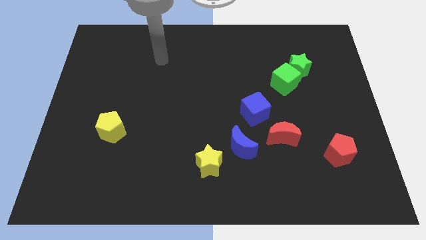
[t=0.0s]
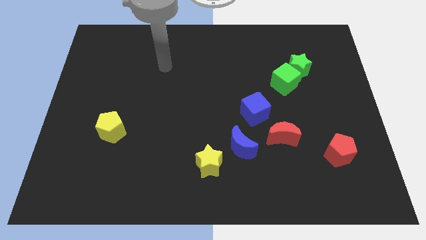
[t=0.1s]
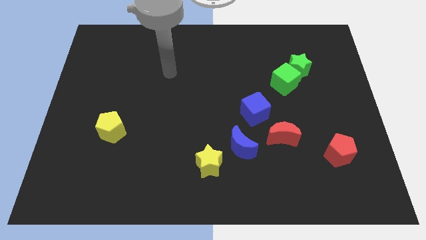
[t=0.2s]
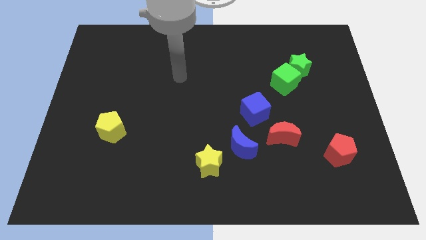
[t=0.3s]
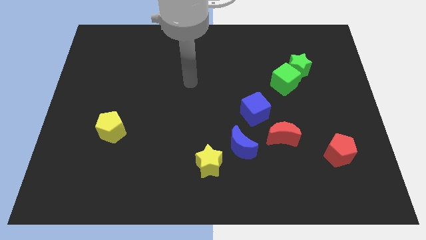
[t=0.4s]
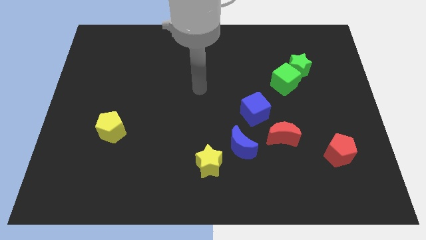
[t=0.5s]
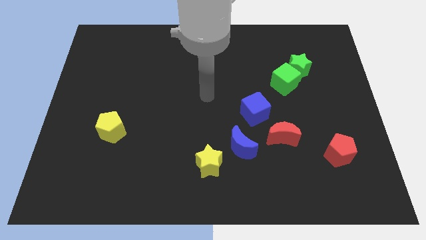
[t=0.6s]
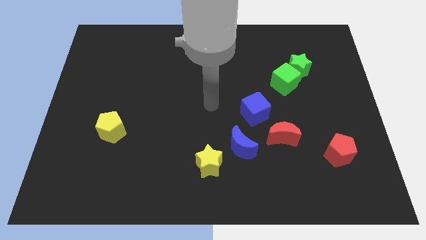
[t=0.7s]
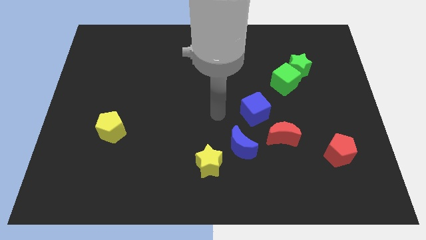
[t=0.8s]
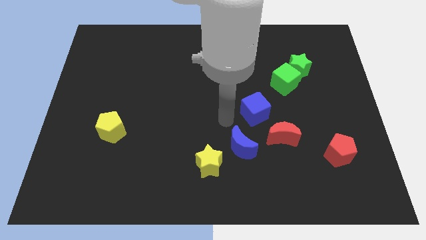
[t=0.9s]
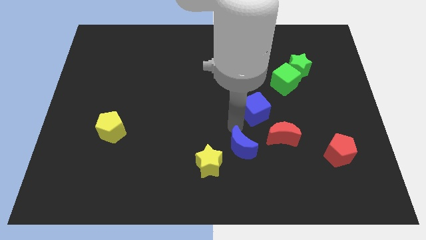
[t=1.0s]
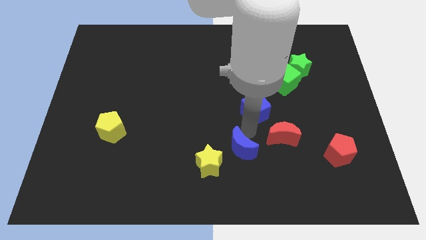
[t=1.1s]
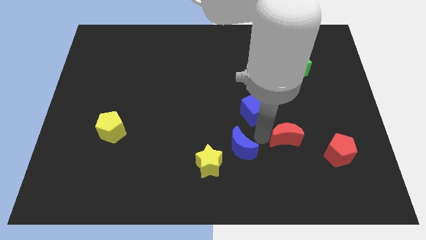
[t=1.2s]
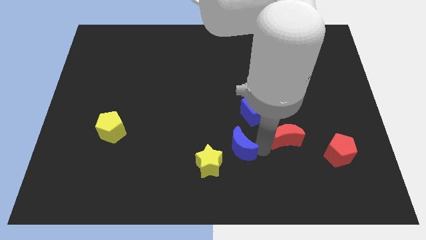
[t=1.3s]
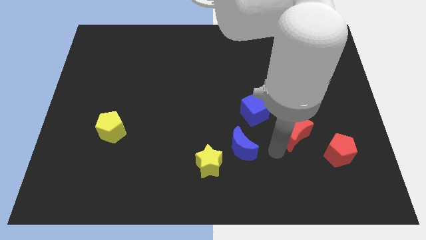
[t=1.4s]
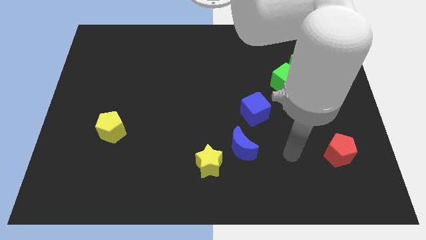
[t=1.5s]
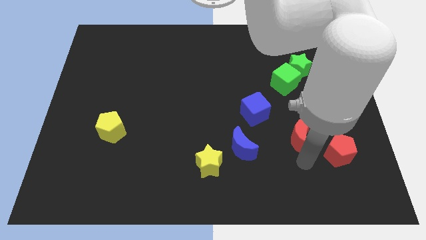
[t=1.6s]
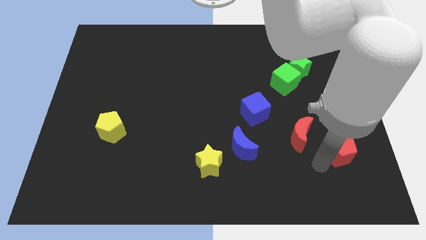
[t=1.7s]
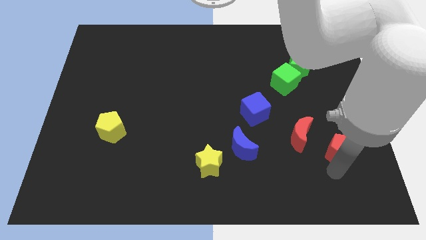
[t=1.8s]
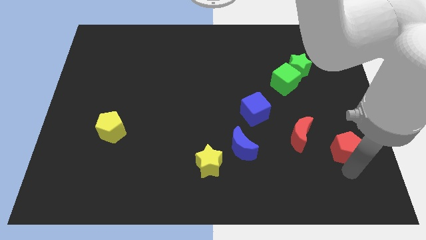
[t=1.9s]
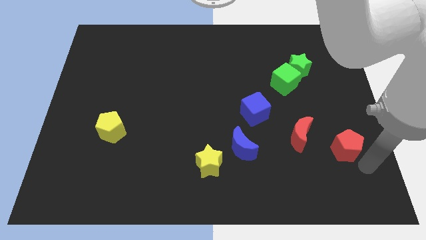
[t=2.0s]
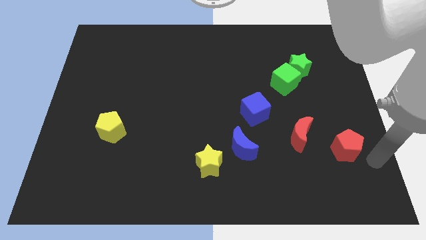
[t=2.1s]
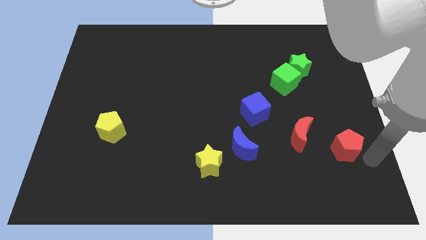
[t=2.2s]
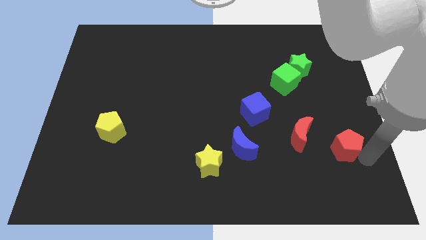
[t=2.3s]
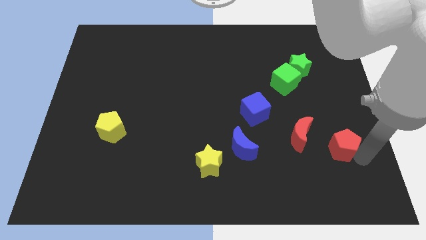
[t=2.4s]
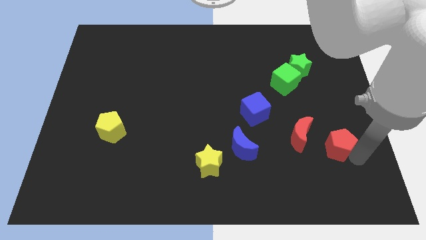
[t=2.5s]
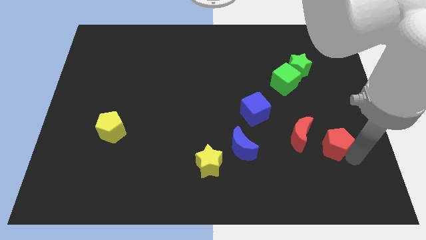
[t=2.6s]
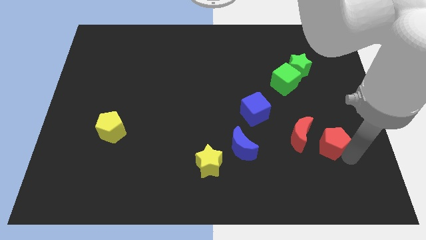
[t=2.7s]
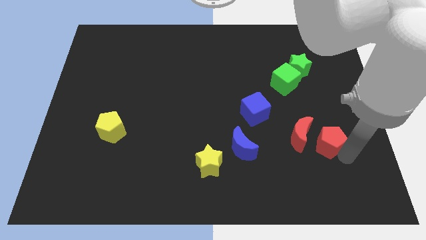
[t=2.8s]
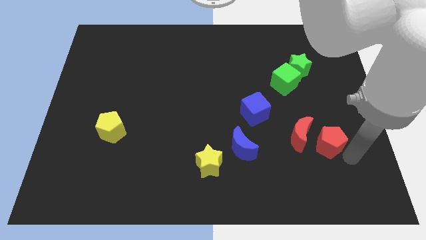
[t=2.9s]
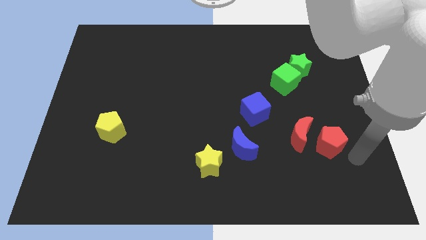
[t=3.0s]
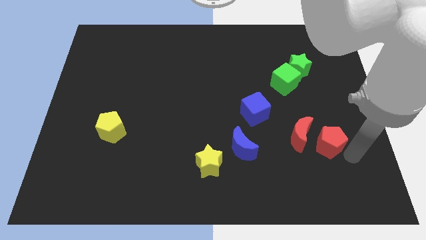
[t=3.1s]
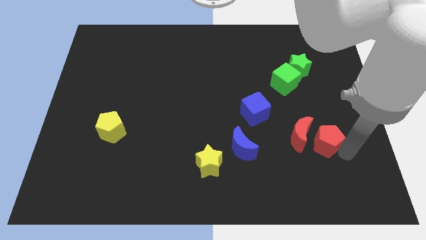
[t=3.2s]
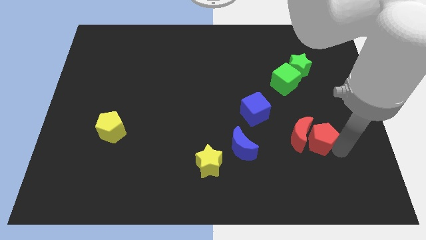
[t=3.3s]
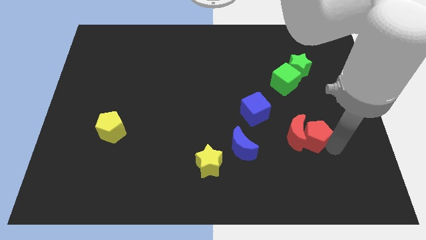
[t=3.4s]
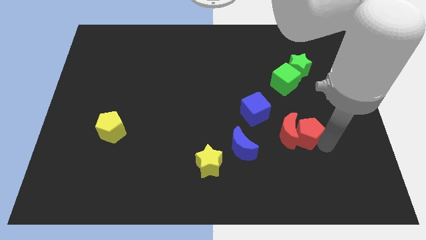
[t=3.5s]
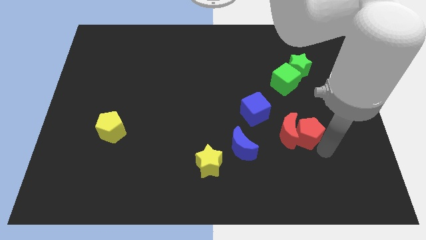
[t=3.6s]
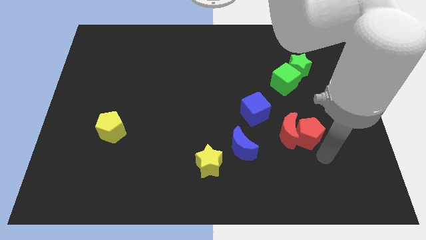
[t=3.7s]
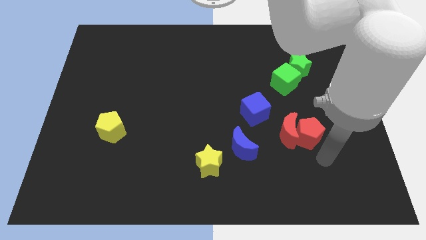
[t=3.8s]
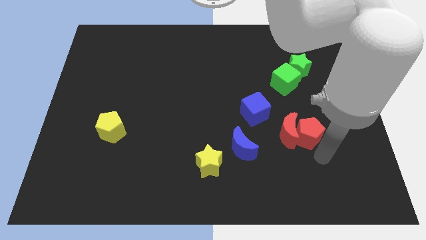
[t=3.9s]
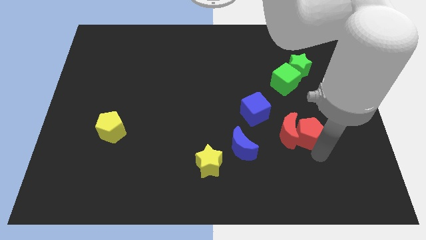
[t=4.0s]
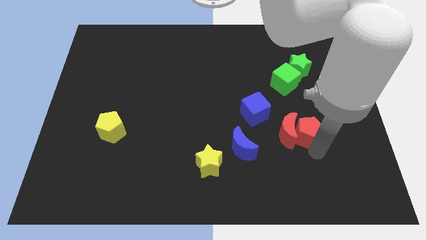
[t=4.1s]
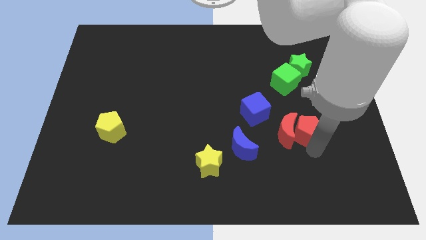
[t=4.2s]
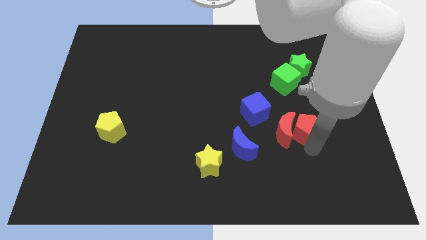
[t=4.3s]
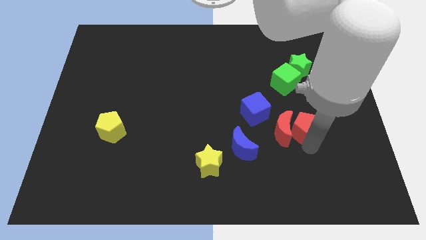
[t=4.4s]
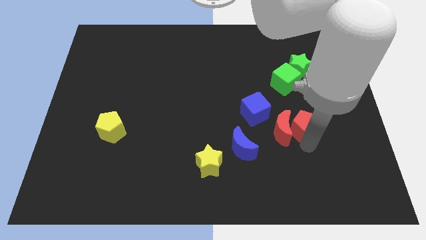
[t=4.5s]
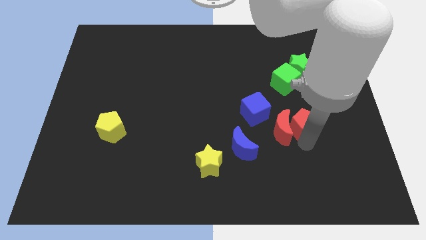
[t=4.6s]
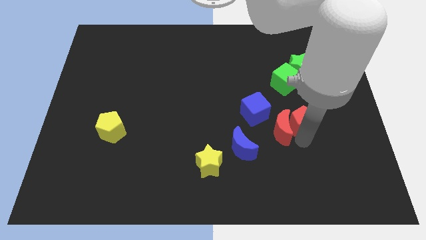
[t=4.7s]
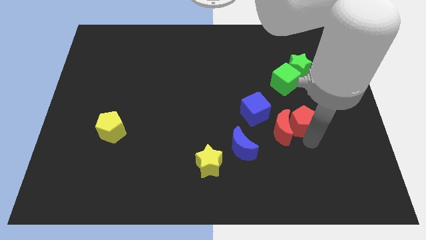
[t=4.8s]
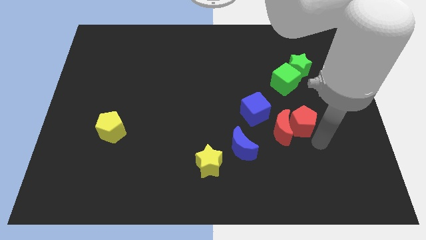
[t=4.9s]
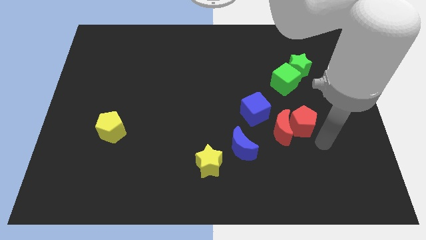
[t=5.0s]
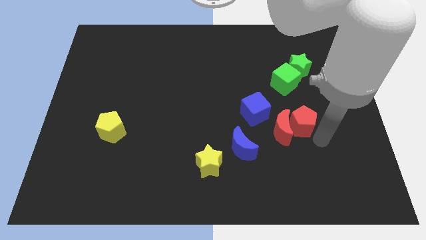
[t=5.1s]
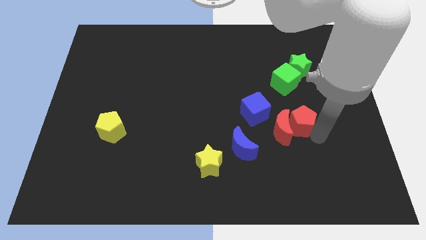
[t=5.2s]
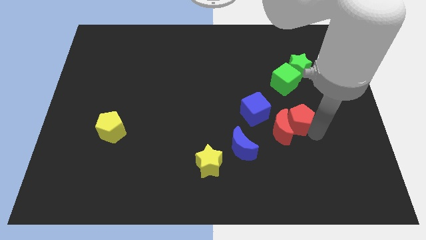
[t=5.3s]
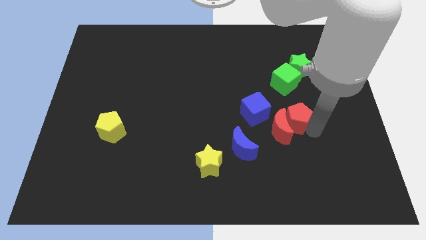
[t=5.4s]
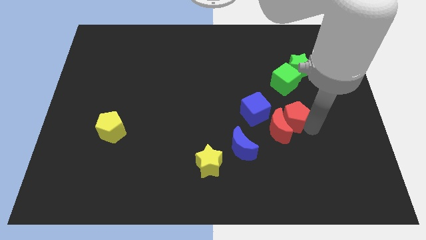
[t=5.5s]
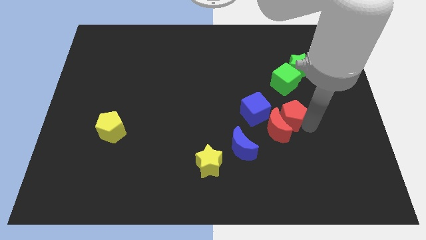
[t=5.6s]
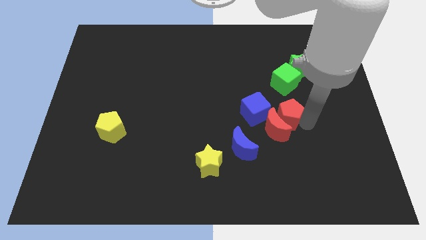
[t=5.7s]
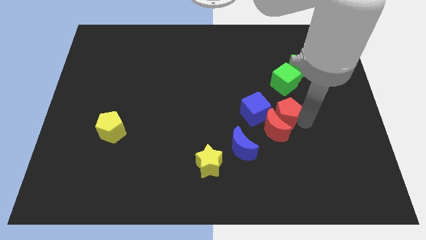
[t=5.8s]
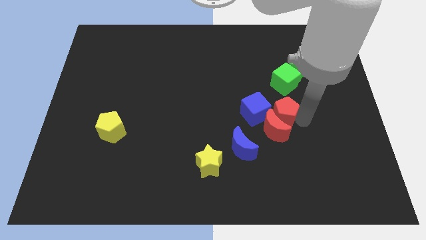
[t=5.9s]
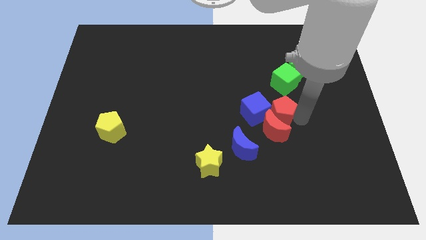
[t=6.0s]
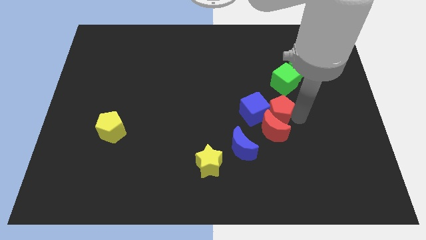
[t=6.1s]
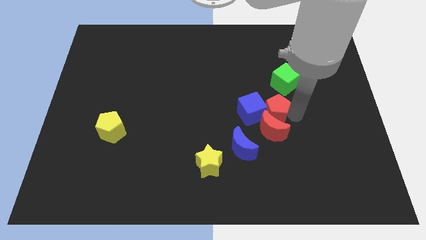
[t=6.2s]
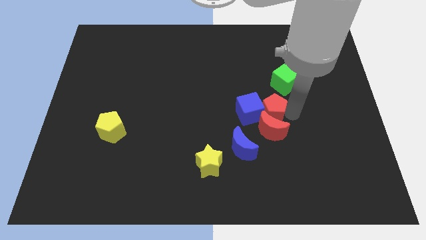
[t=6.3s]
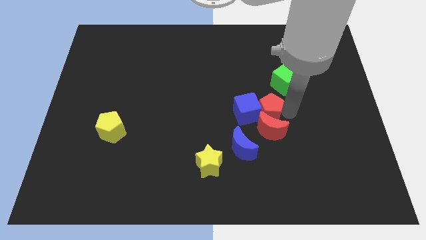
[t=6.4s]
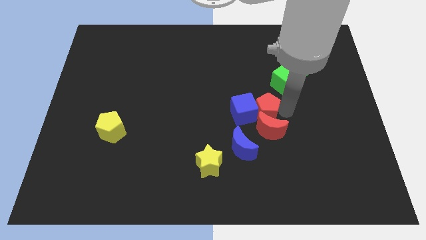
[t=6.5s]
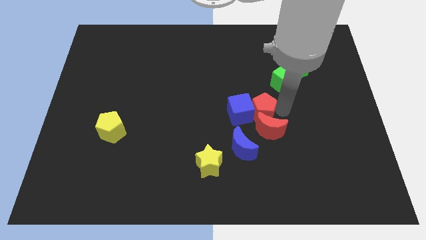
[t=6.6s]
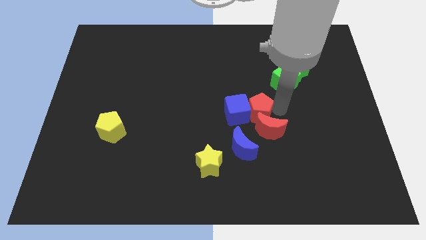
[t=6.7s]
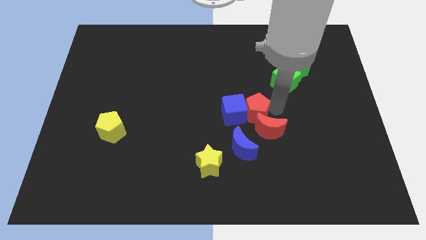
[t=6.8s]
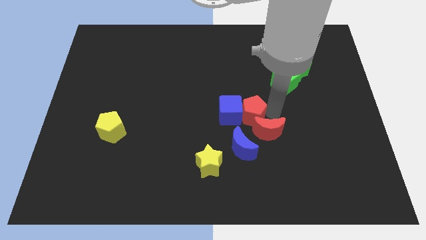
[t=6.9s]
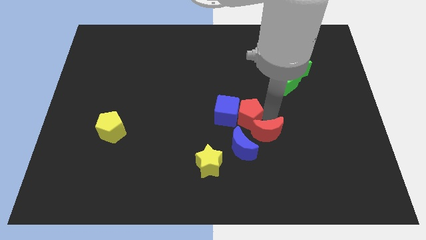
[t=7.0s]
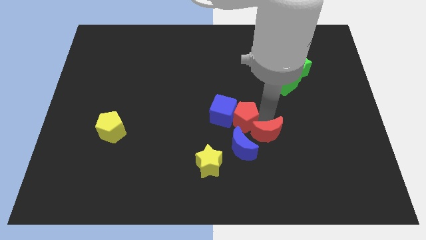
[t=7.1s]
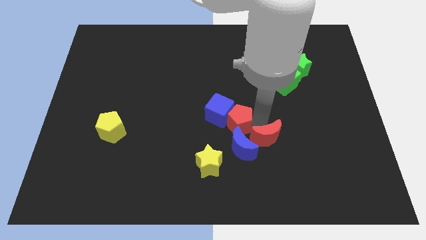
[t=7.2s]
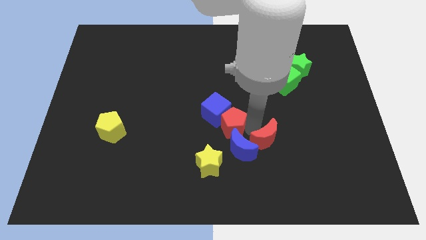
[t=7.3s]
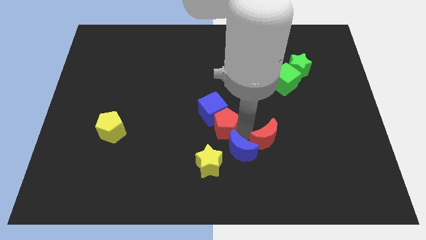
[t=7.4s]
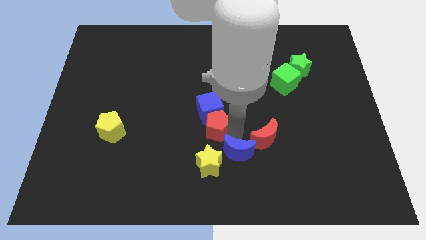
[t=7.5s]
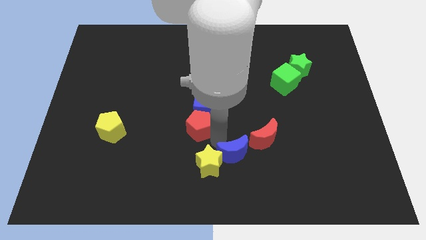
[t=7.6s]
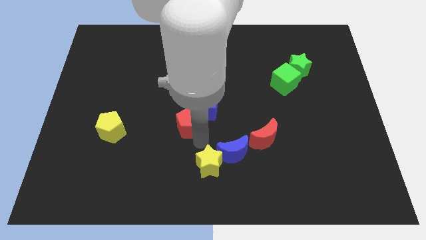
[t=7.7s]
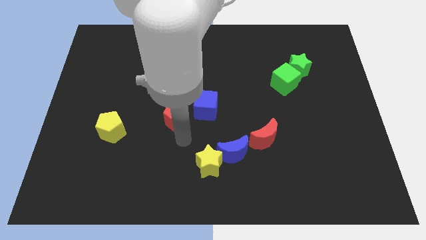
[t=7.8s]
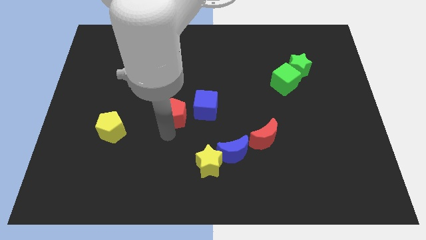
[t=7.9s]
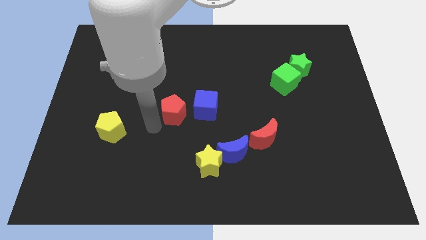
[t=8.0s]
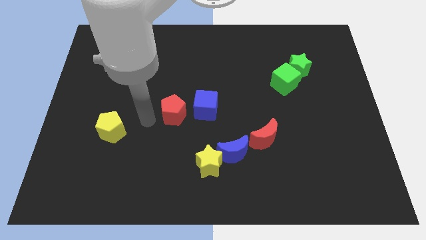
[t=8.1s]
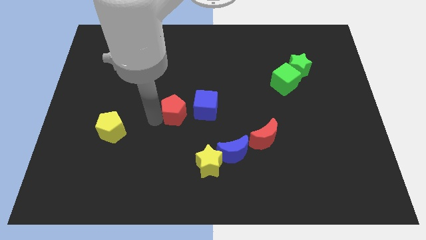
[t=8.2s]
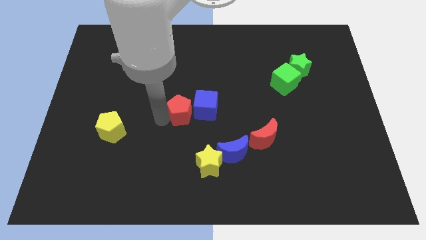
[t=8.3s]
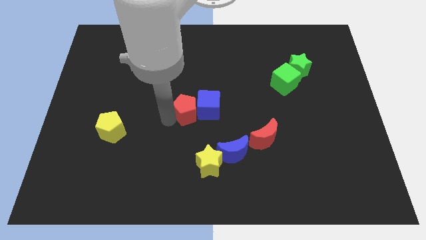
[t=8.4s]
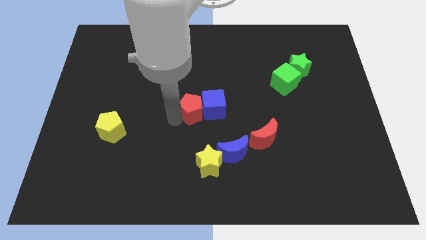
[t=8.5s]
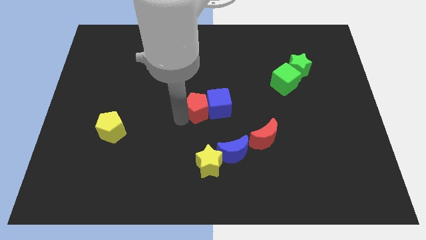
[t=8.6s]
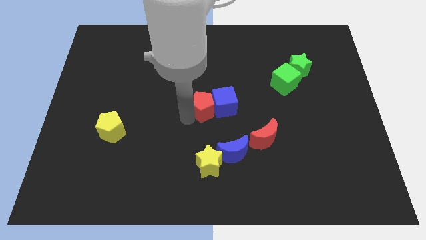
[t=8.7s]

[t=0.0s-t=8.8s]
move the red pentagon diagonally up and to the left
